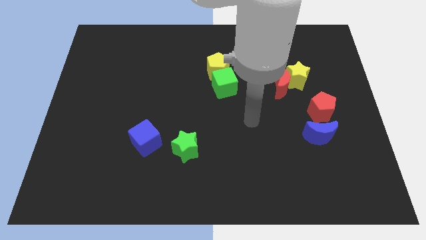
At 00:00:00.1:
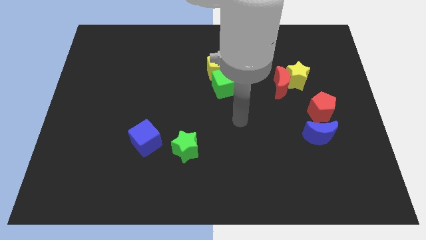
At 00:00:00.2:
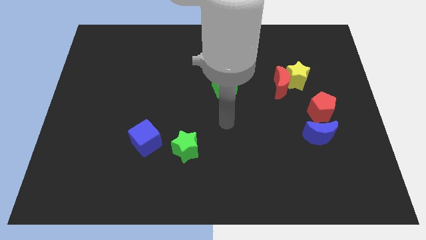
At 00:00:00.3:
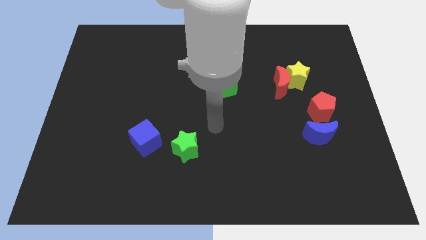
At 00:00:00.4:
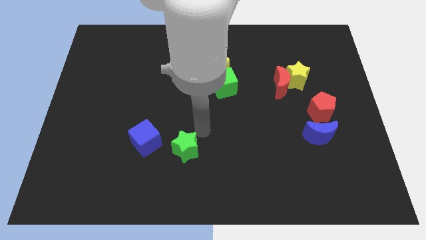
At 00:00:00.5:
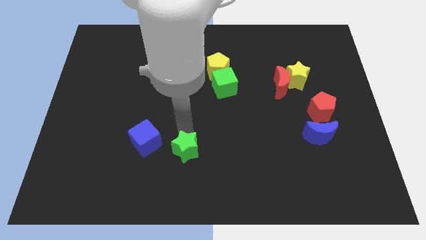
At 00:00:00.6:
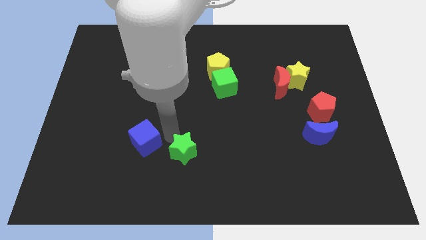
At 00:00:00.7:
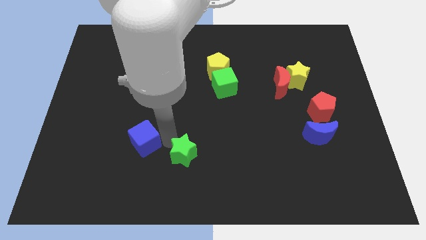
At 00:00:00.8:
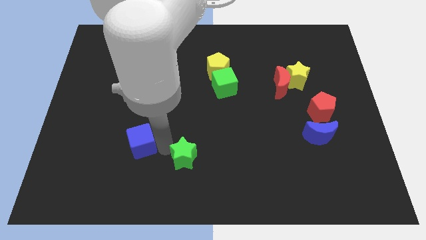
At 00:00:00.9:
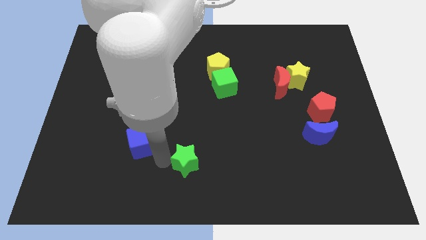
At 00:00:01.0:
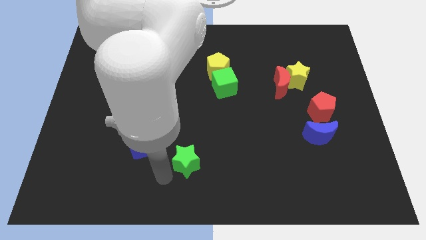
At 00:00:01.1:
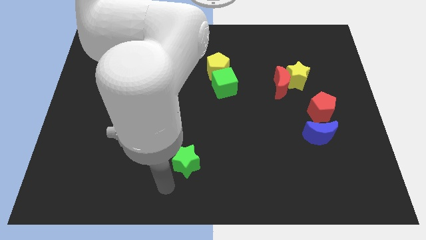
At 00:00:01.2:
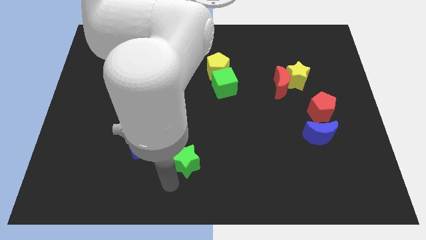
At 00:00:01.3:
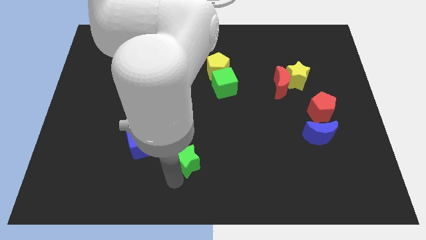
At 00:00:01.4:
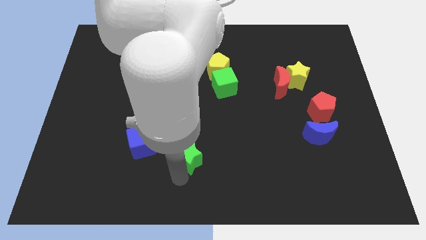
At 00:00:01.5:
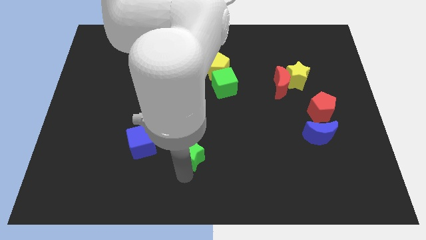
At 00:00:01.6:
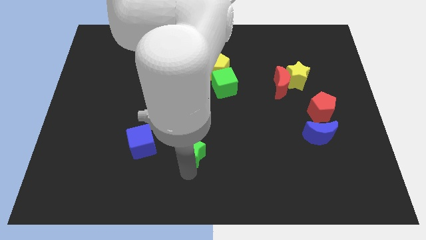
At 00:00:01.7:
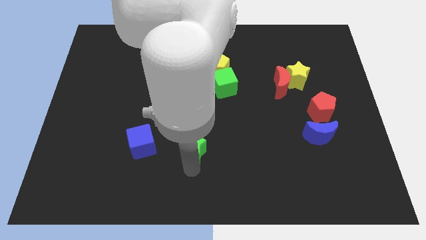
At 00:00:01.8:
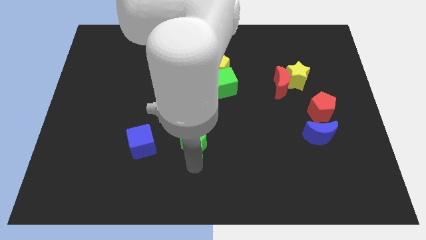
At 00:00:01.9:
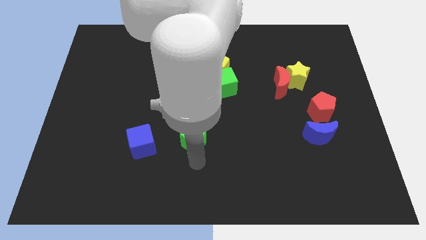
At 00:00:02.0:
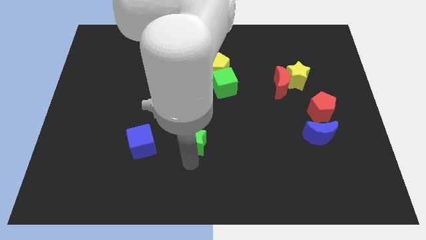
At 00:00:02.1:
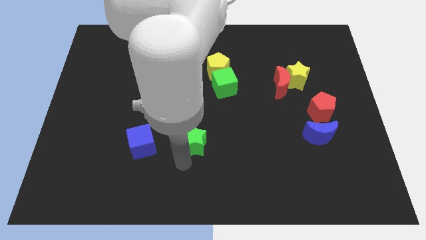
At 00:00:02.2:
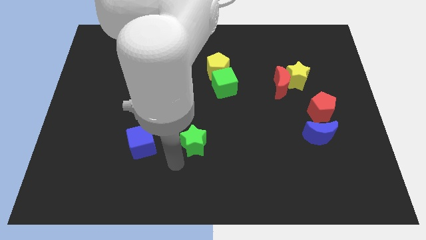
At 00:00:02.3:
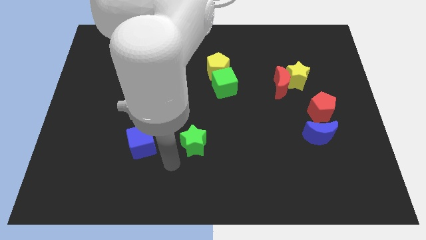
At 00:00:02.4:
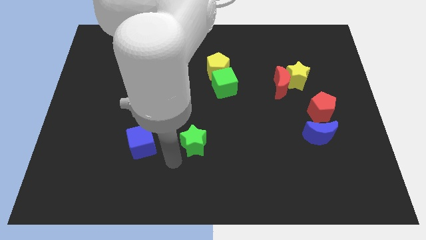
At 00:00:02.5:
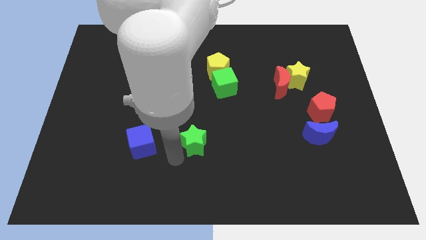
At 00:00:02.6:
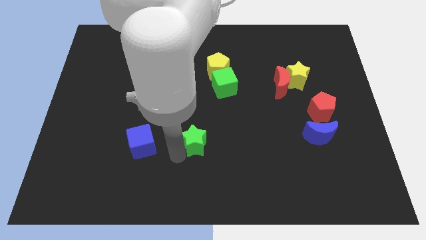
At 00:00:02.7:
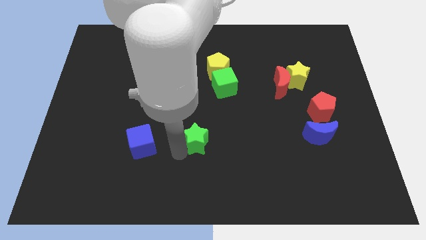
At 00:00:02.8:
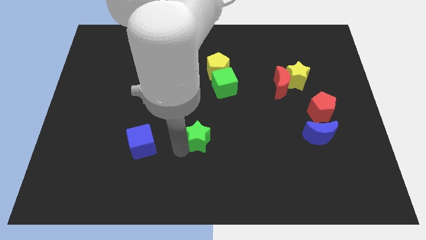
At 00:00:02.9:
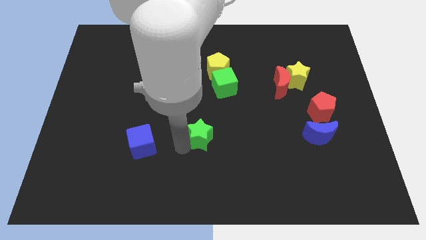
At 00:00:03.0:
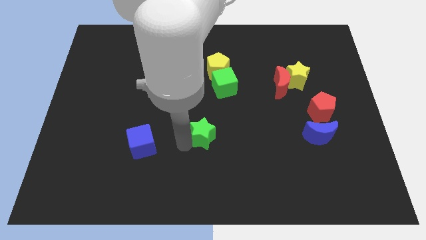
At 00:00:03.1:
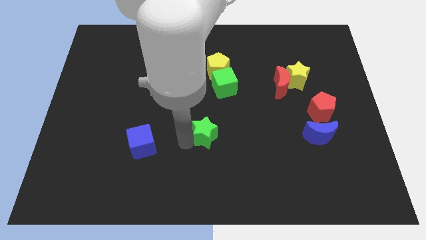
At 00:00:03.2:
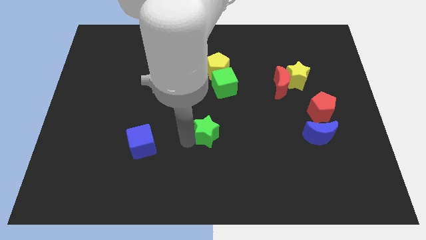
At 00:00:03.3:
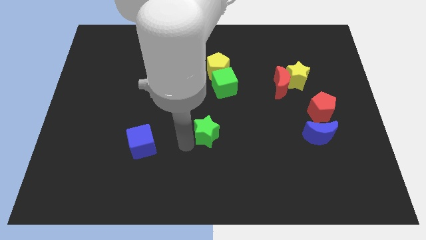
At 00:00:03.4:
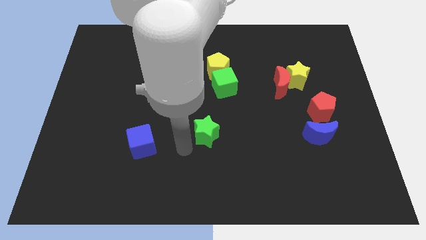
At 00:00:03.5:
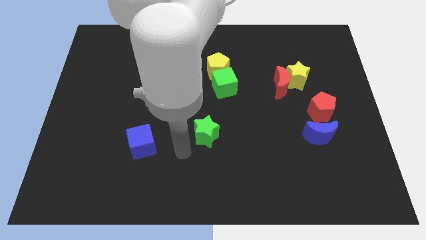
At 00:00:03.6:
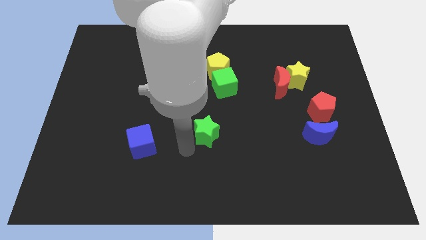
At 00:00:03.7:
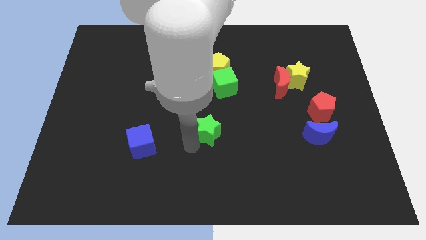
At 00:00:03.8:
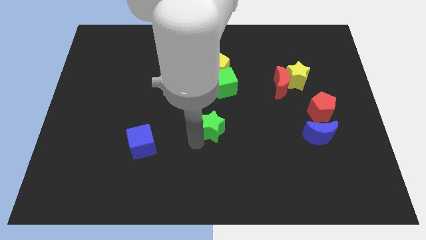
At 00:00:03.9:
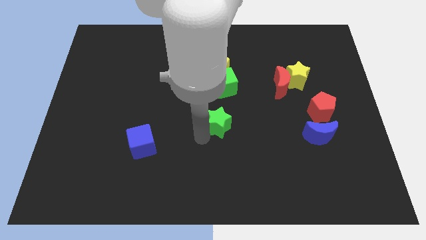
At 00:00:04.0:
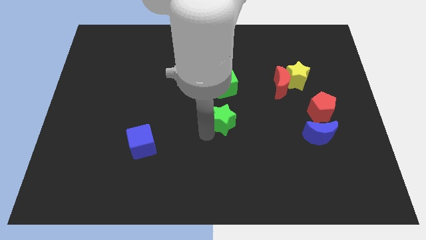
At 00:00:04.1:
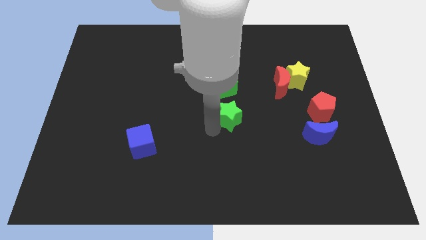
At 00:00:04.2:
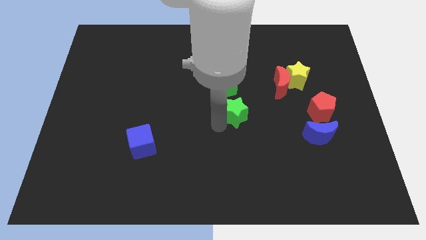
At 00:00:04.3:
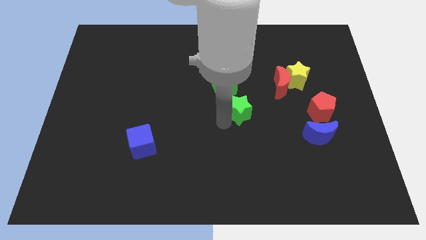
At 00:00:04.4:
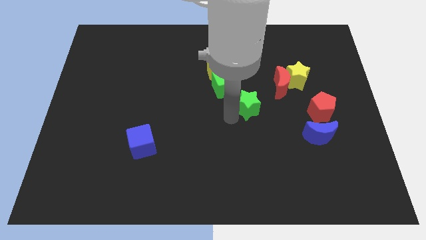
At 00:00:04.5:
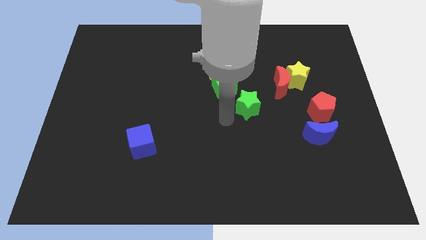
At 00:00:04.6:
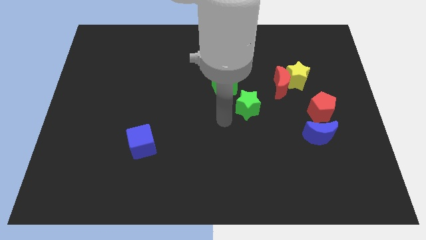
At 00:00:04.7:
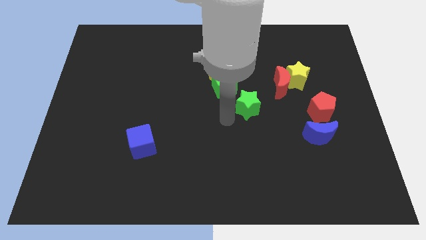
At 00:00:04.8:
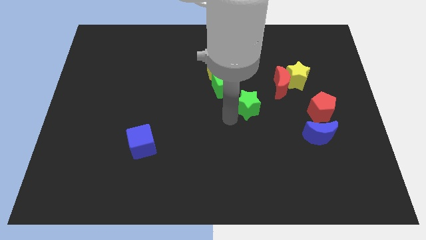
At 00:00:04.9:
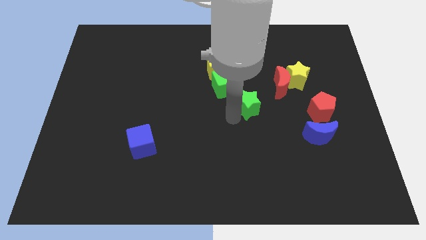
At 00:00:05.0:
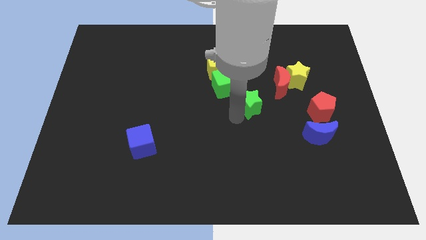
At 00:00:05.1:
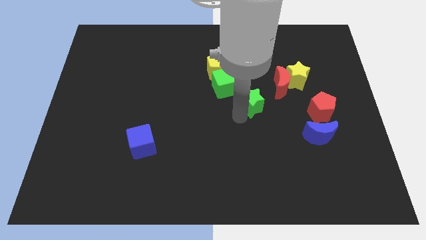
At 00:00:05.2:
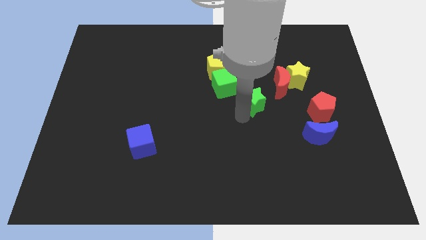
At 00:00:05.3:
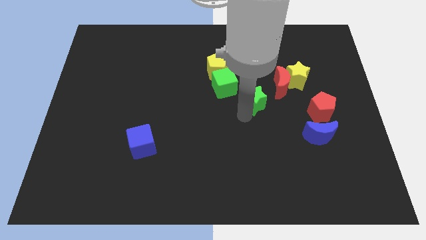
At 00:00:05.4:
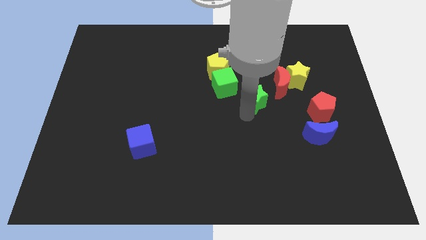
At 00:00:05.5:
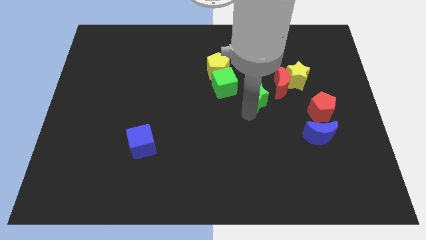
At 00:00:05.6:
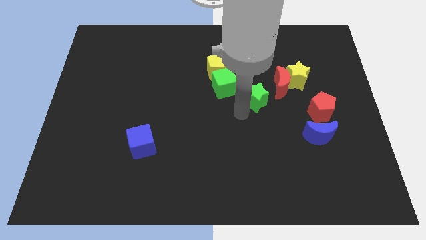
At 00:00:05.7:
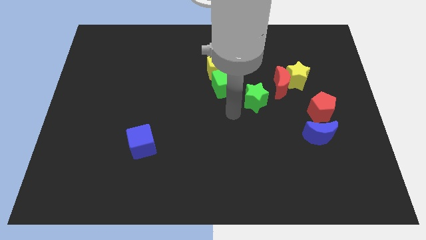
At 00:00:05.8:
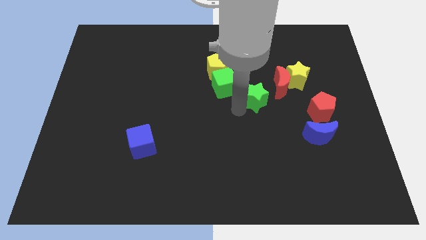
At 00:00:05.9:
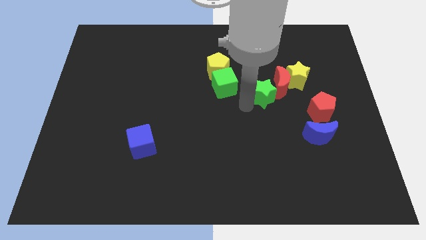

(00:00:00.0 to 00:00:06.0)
slide the green star to the red moon
